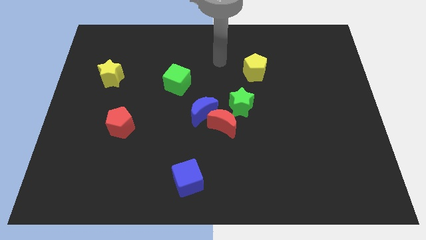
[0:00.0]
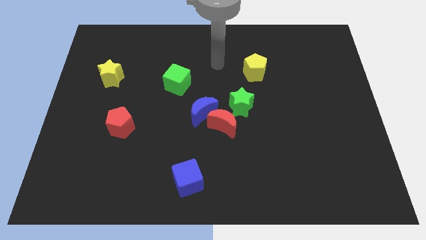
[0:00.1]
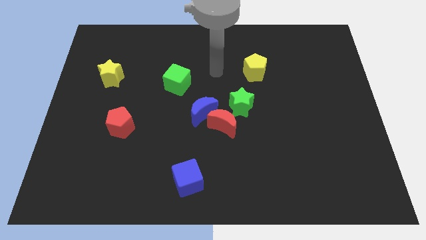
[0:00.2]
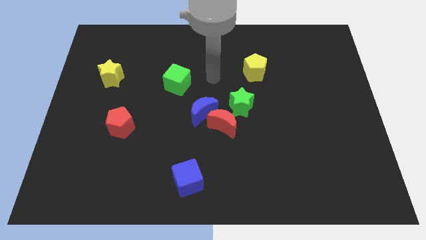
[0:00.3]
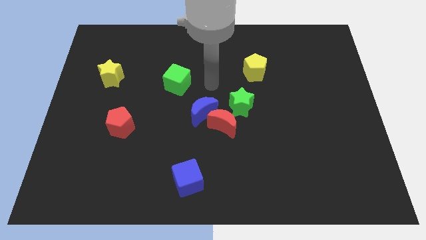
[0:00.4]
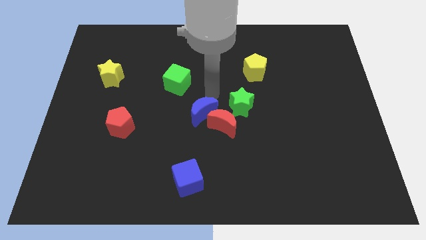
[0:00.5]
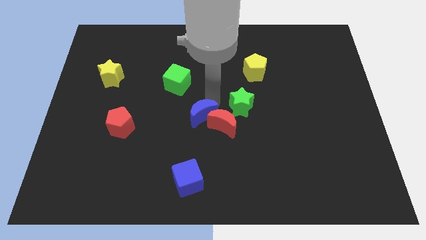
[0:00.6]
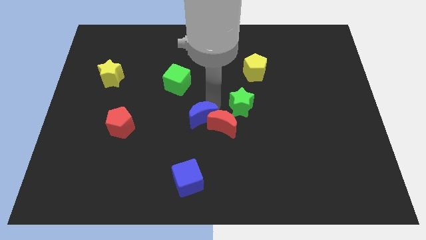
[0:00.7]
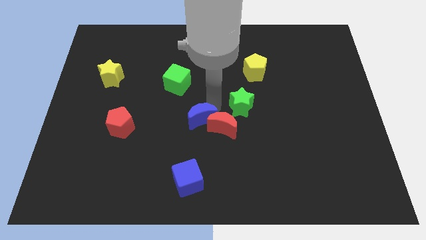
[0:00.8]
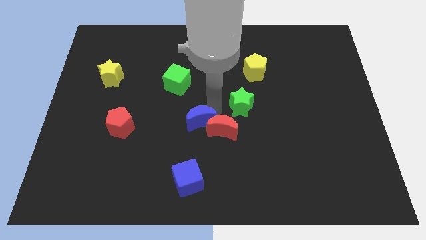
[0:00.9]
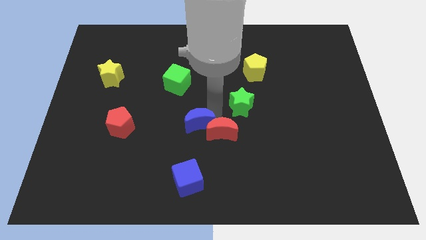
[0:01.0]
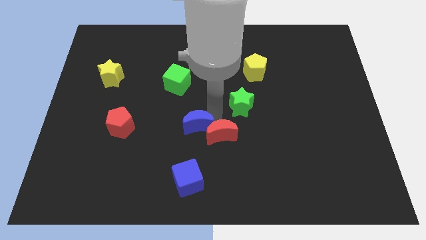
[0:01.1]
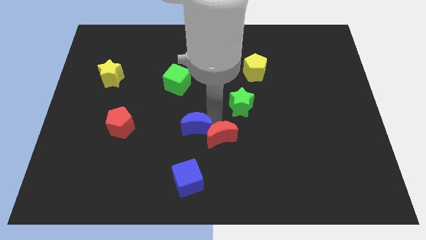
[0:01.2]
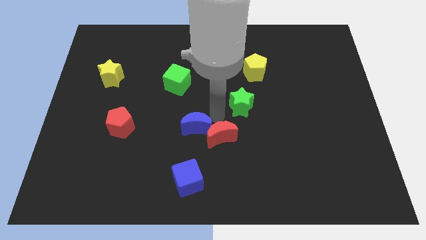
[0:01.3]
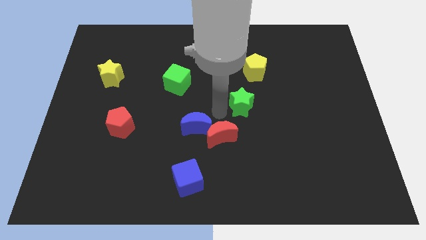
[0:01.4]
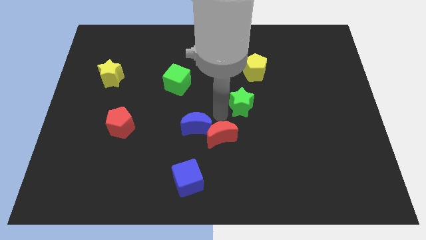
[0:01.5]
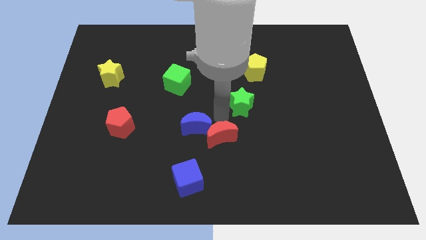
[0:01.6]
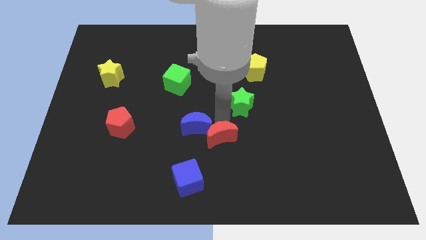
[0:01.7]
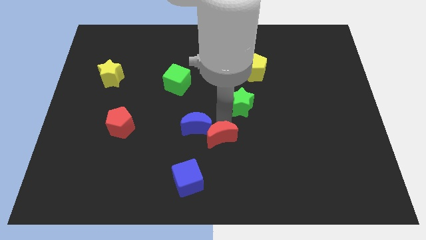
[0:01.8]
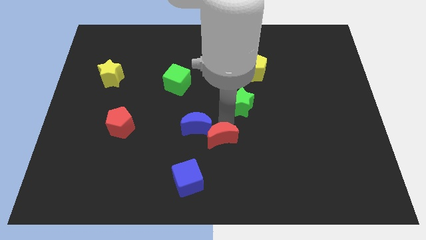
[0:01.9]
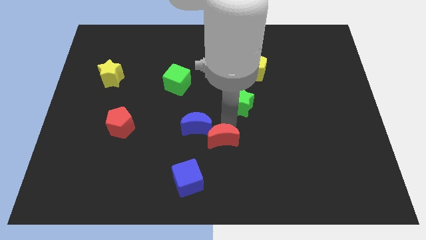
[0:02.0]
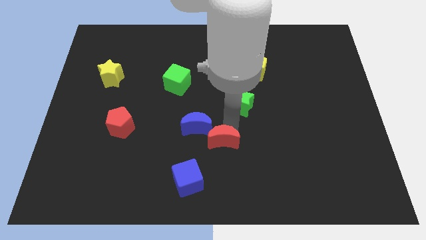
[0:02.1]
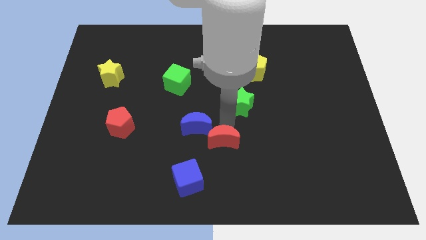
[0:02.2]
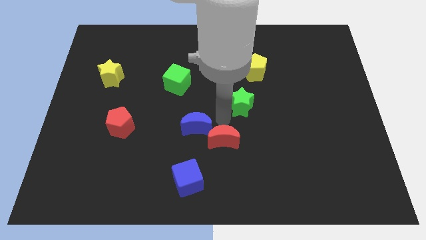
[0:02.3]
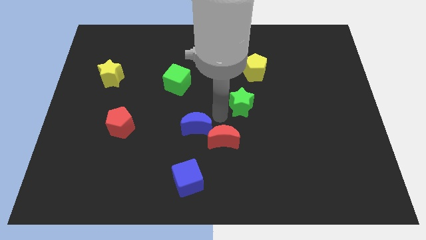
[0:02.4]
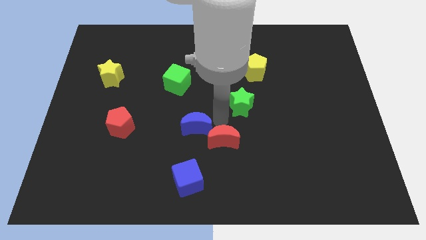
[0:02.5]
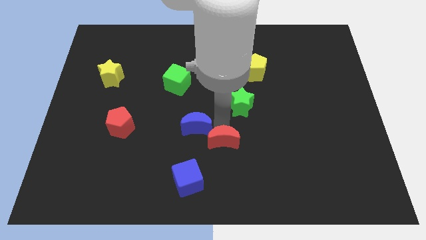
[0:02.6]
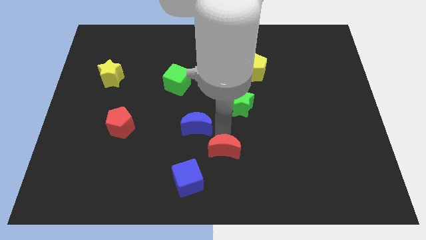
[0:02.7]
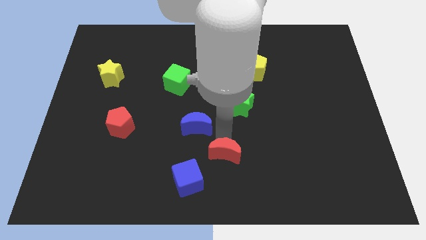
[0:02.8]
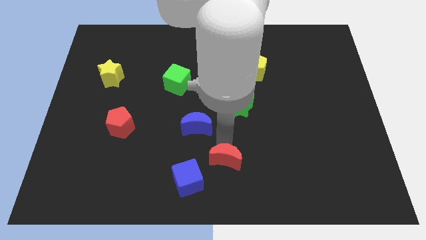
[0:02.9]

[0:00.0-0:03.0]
move the red moon away from the blue moon and green star

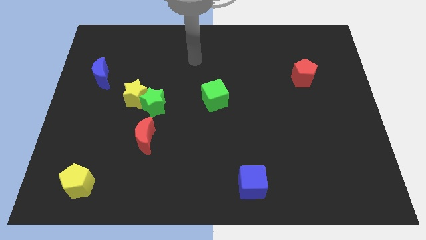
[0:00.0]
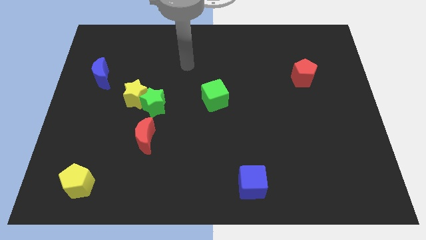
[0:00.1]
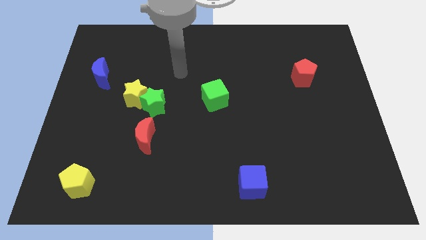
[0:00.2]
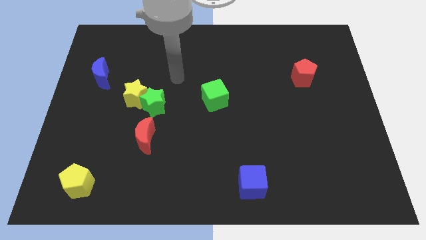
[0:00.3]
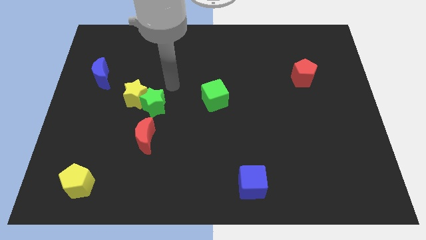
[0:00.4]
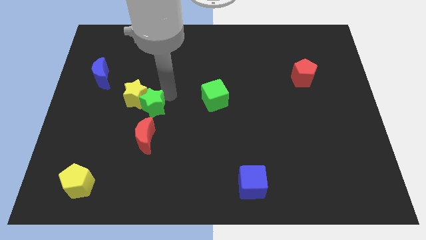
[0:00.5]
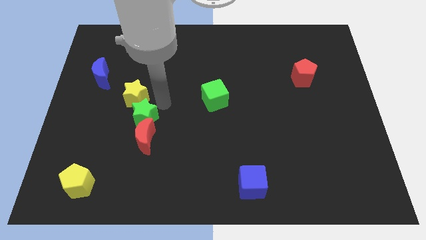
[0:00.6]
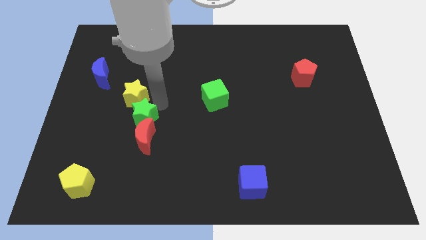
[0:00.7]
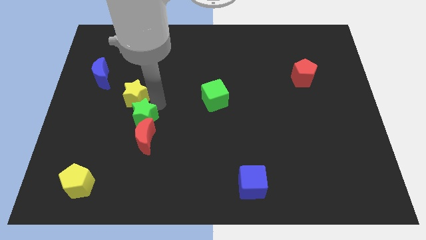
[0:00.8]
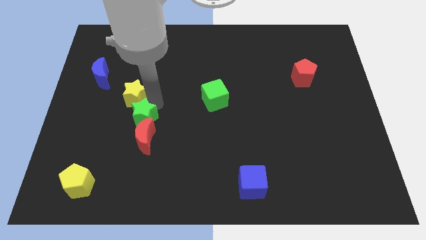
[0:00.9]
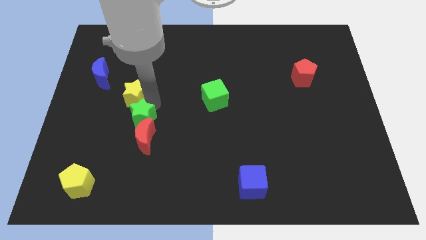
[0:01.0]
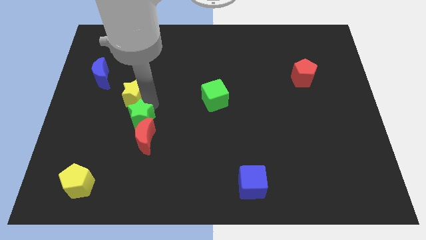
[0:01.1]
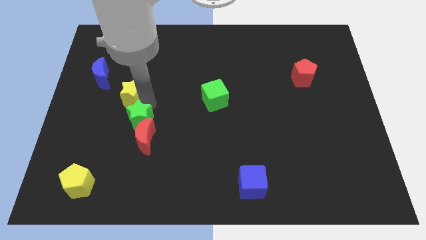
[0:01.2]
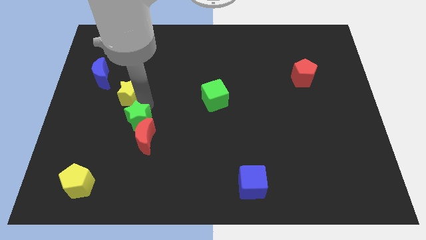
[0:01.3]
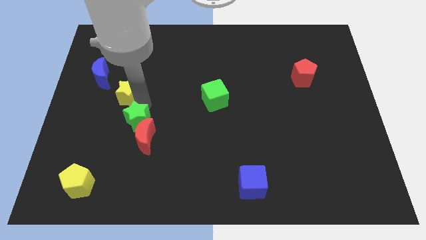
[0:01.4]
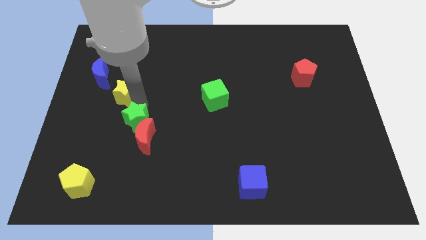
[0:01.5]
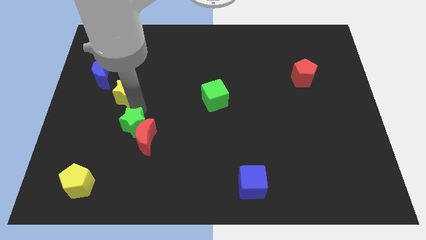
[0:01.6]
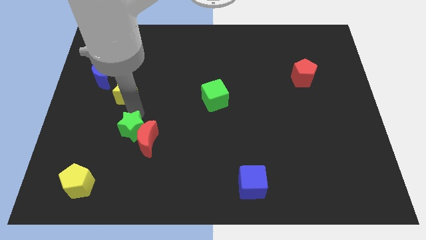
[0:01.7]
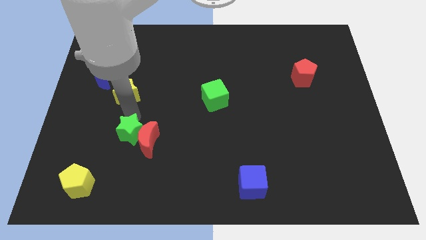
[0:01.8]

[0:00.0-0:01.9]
separate the yellow star from the green star

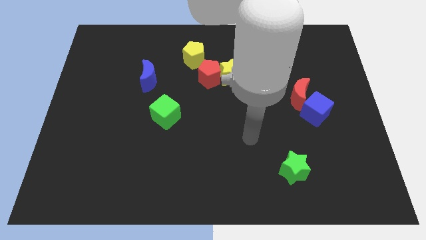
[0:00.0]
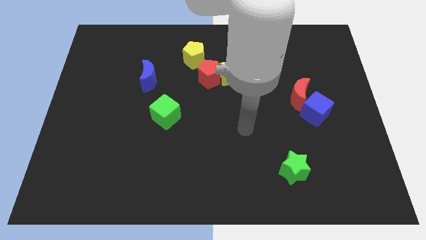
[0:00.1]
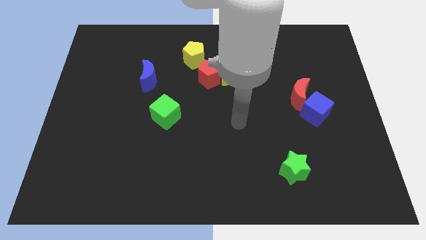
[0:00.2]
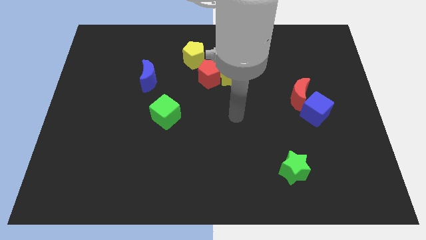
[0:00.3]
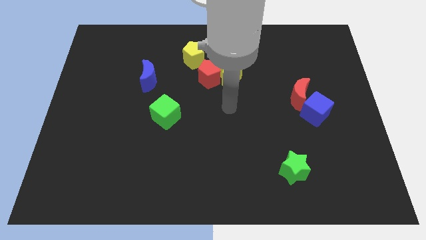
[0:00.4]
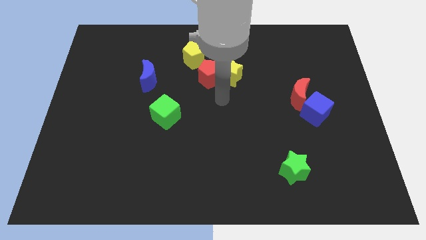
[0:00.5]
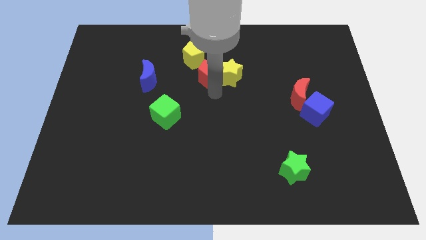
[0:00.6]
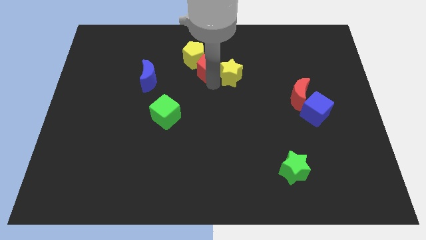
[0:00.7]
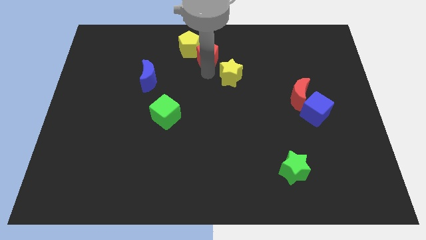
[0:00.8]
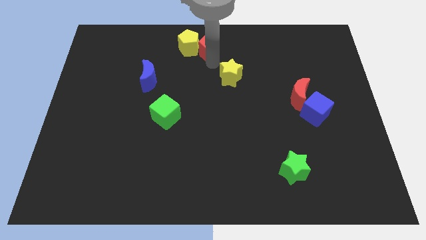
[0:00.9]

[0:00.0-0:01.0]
move the yellow star away from the red pentagon

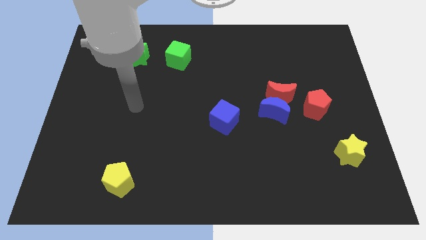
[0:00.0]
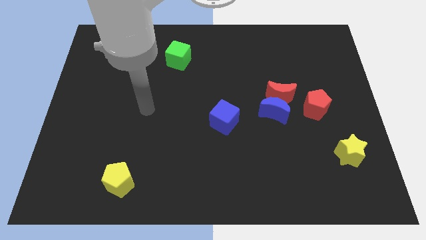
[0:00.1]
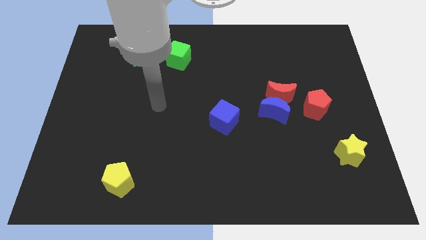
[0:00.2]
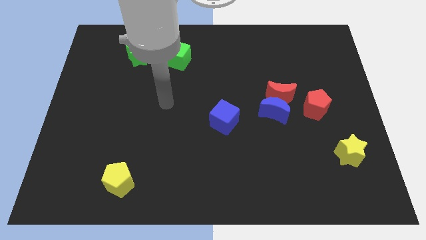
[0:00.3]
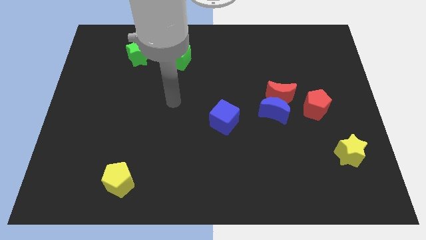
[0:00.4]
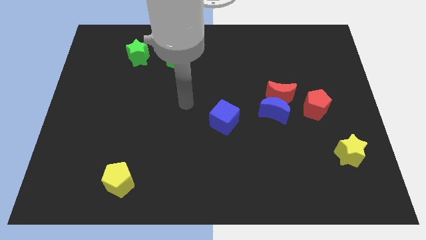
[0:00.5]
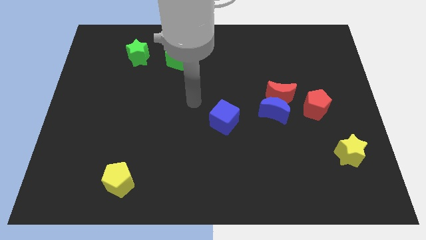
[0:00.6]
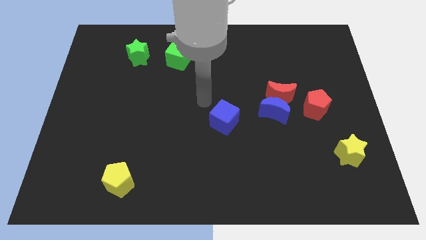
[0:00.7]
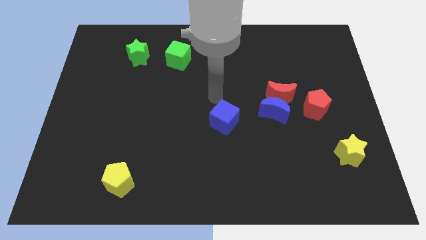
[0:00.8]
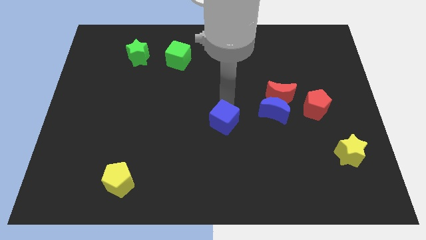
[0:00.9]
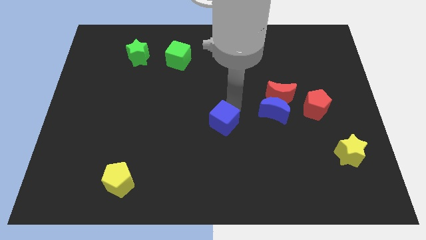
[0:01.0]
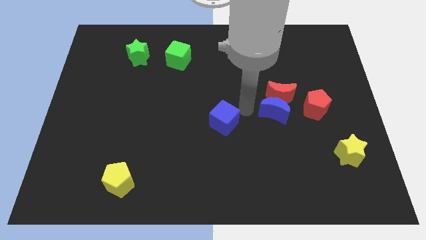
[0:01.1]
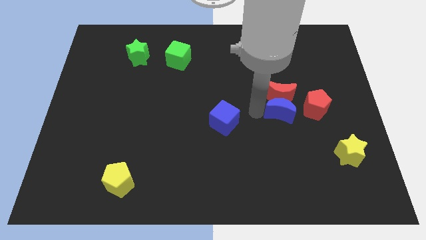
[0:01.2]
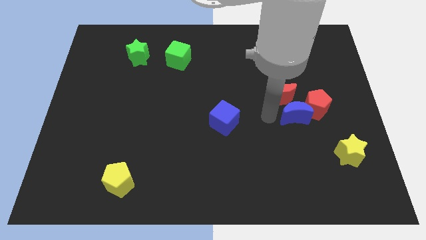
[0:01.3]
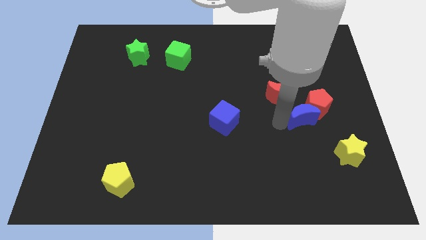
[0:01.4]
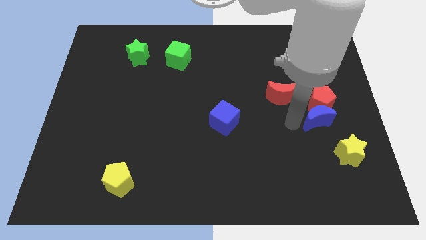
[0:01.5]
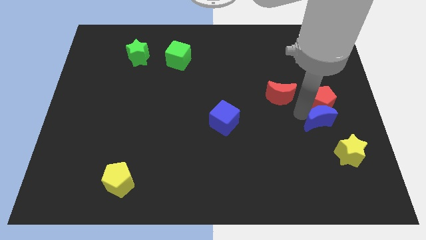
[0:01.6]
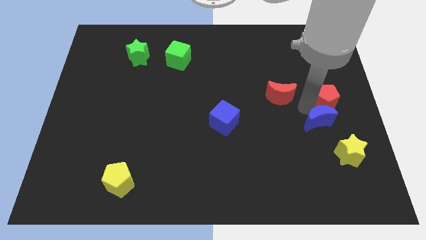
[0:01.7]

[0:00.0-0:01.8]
pull the red moon apart from the blue moon and red pentagon

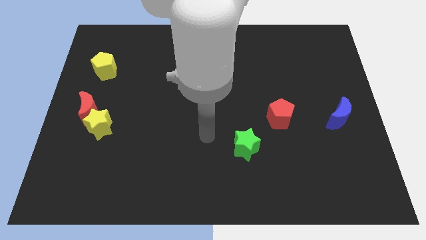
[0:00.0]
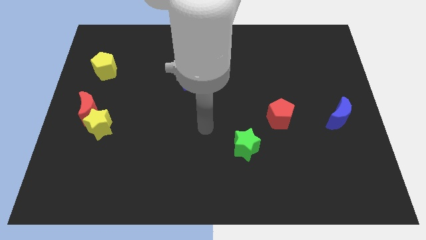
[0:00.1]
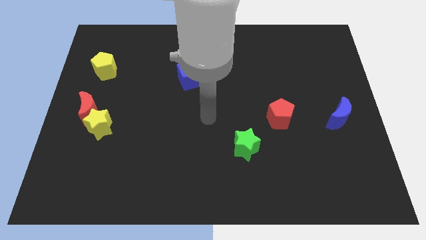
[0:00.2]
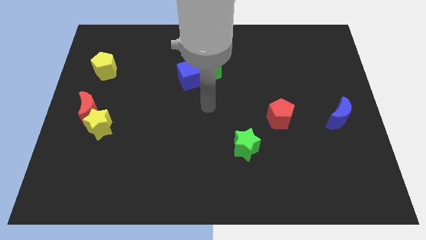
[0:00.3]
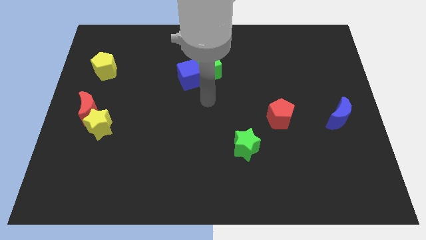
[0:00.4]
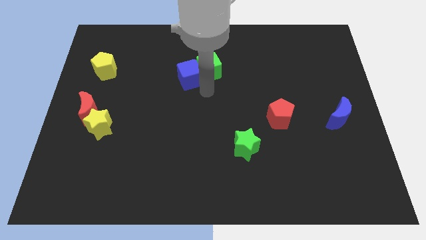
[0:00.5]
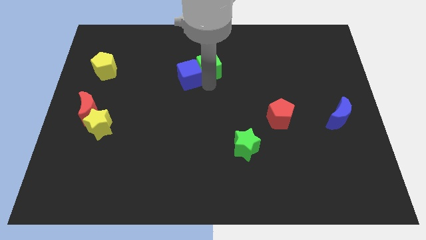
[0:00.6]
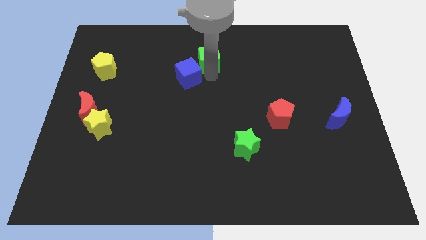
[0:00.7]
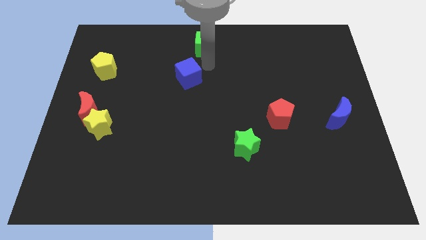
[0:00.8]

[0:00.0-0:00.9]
pull the blue cube apart from the green cube

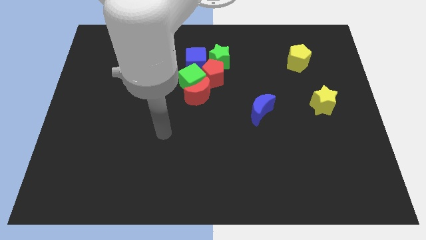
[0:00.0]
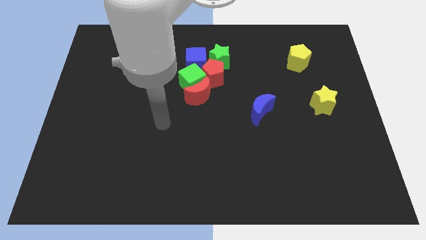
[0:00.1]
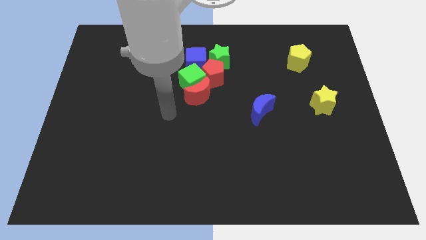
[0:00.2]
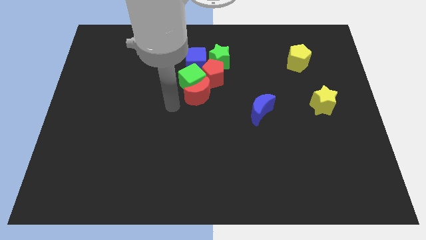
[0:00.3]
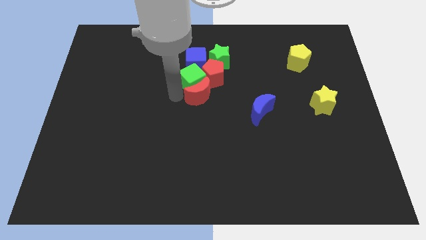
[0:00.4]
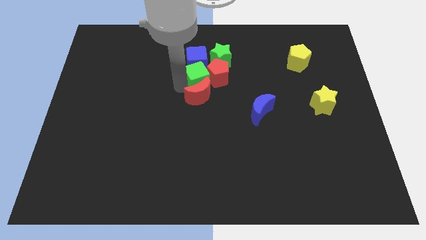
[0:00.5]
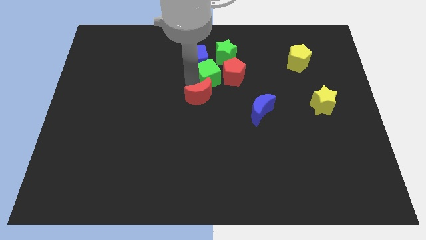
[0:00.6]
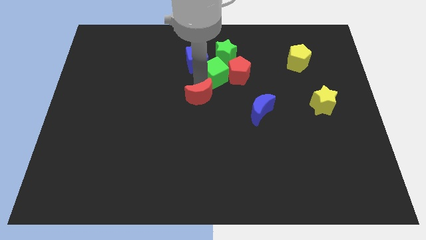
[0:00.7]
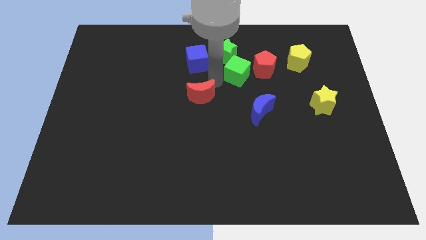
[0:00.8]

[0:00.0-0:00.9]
pull the red moon apart from the green cube and red pentagon
